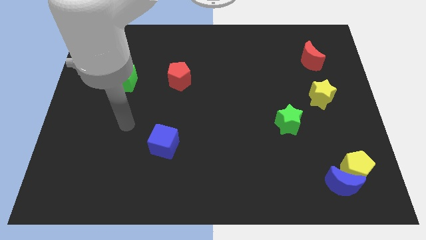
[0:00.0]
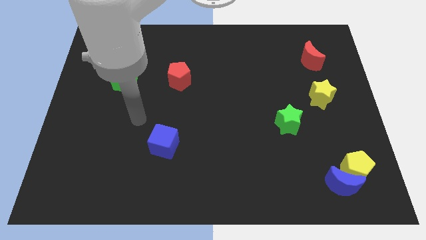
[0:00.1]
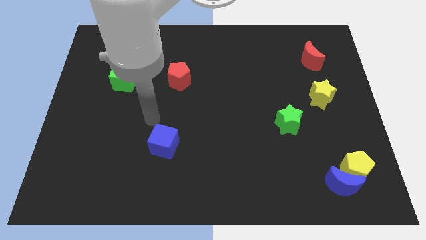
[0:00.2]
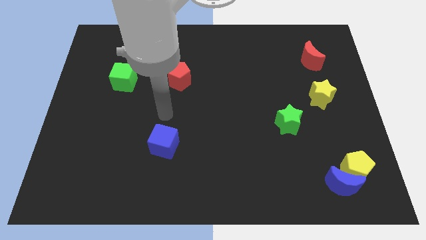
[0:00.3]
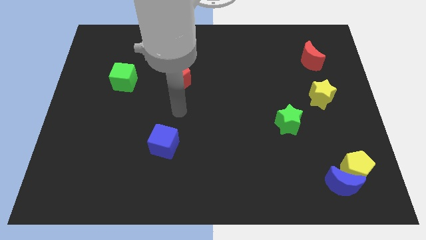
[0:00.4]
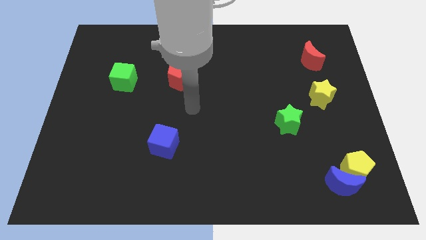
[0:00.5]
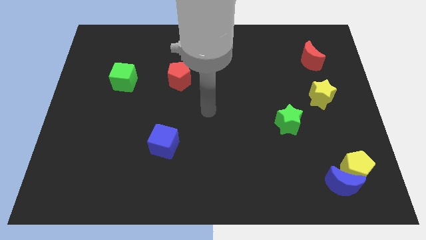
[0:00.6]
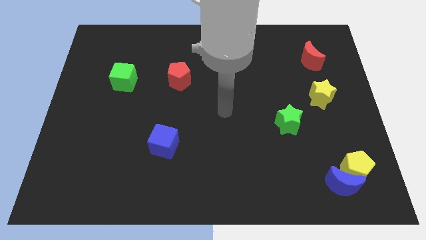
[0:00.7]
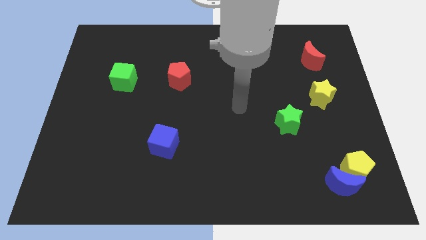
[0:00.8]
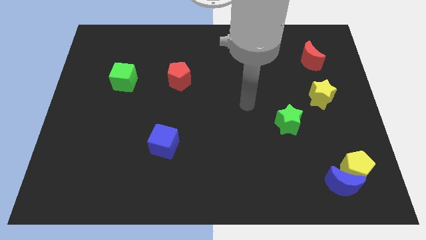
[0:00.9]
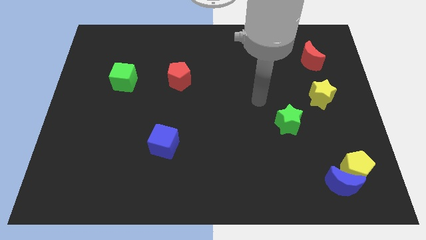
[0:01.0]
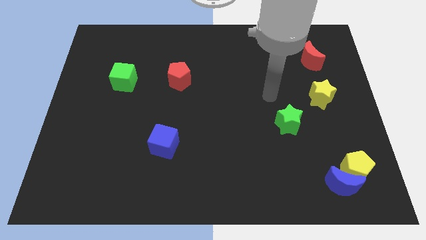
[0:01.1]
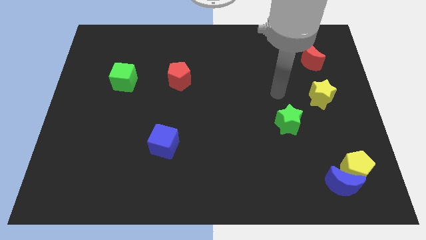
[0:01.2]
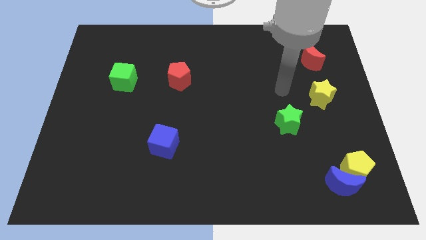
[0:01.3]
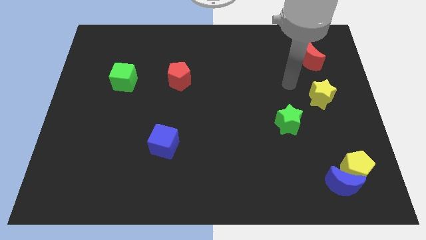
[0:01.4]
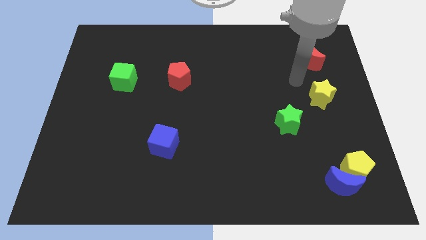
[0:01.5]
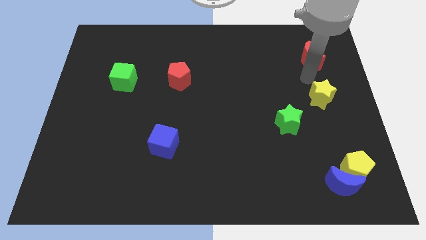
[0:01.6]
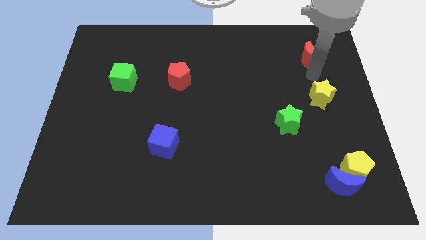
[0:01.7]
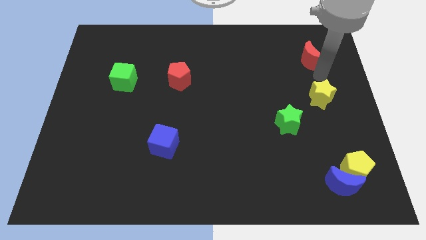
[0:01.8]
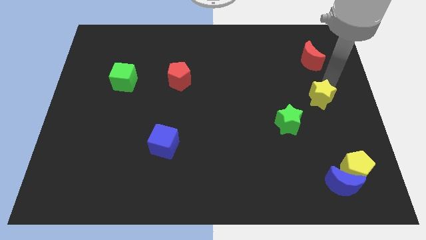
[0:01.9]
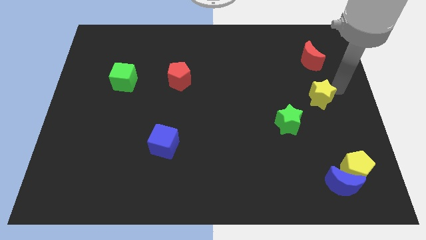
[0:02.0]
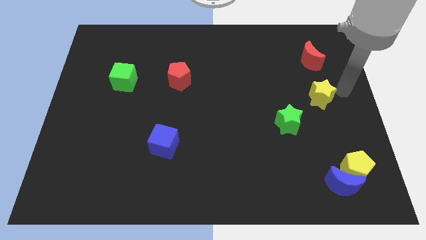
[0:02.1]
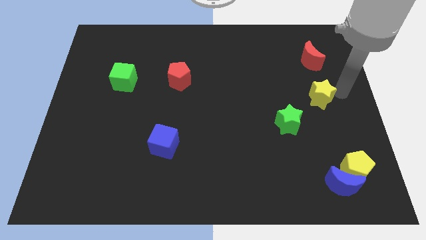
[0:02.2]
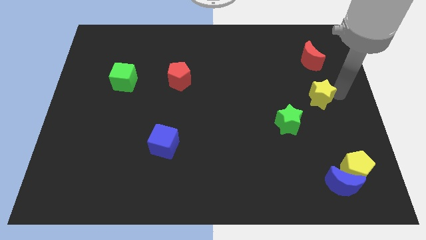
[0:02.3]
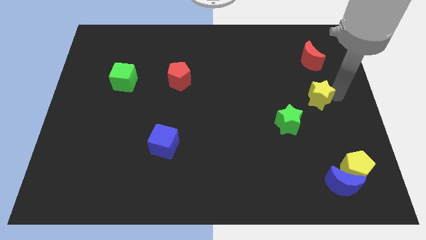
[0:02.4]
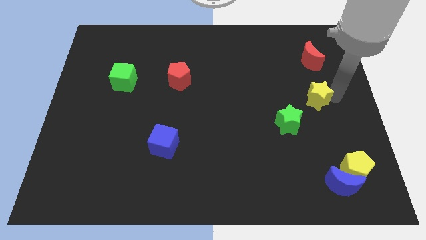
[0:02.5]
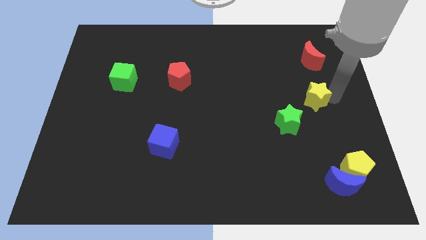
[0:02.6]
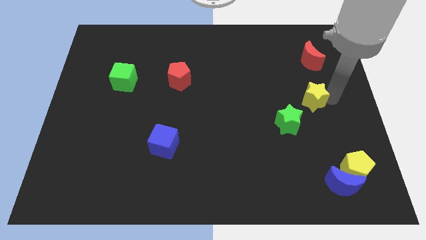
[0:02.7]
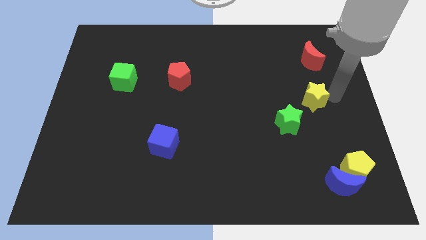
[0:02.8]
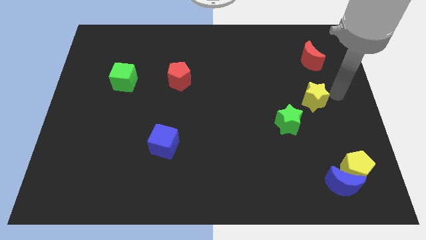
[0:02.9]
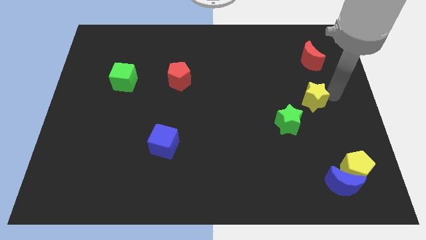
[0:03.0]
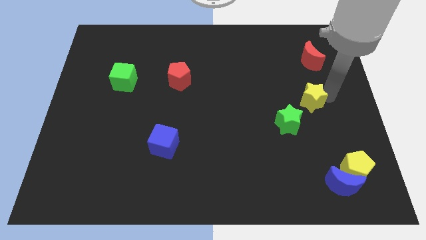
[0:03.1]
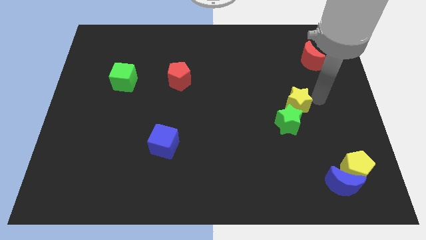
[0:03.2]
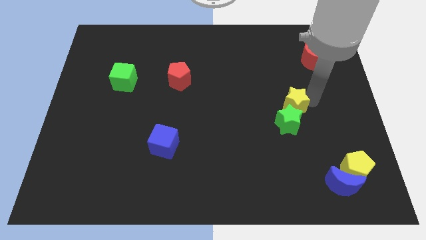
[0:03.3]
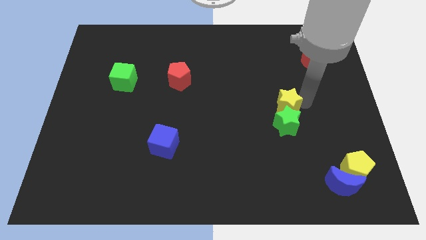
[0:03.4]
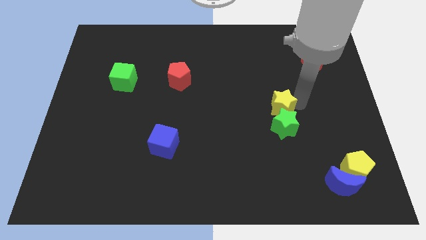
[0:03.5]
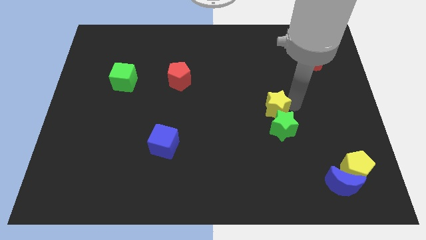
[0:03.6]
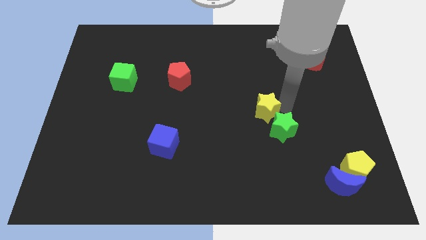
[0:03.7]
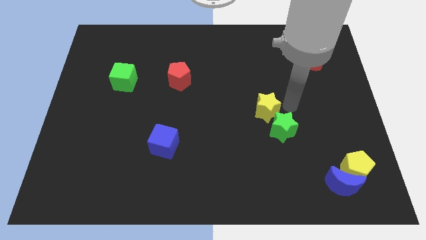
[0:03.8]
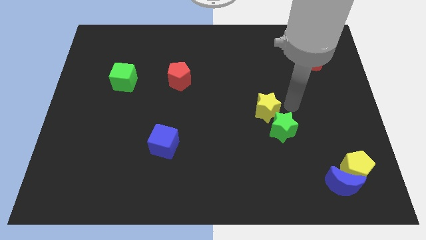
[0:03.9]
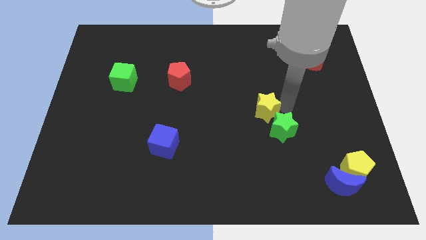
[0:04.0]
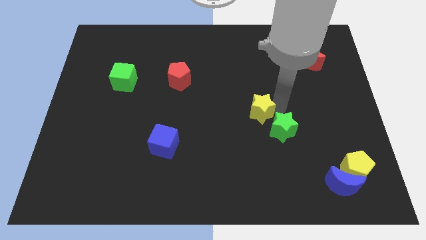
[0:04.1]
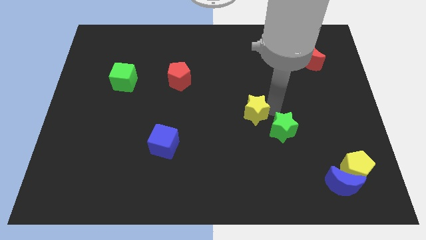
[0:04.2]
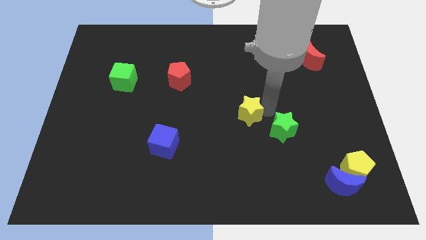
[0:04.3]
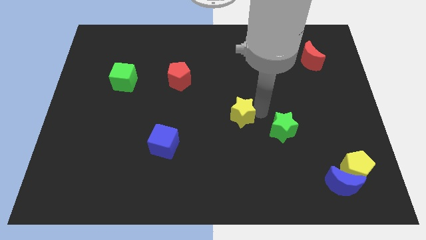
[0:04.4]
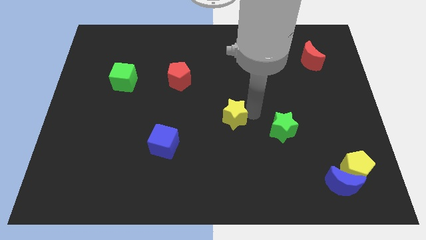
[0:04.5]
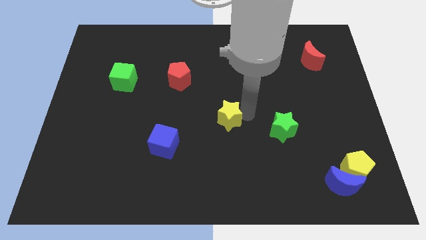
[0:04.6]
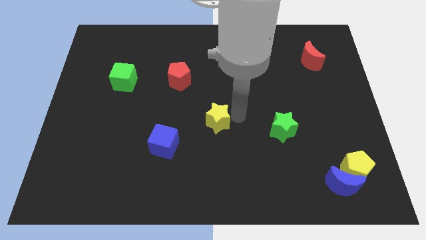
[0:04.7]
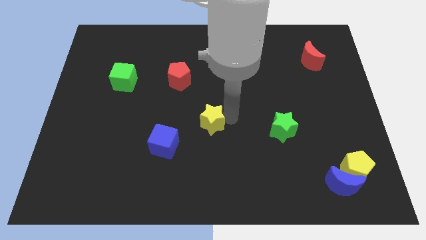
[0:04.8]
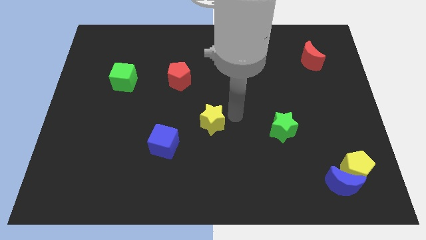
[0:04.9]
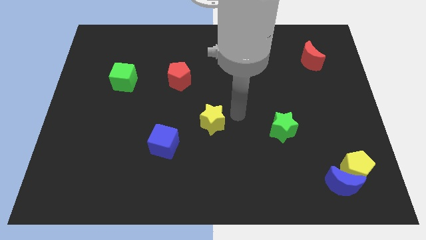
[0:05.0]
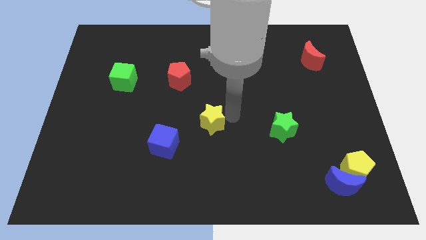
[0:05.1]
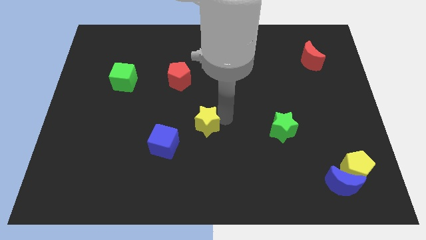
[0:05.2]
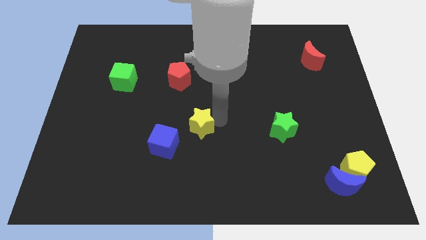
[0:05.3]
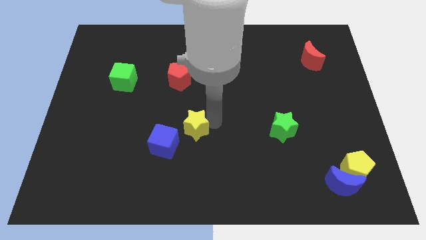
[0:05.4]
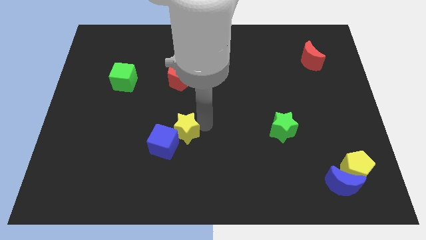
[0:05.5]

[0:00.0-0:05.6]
put the yellow star towards the blue cube

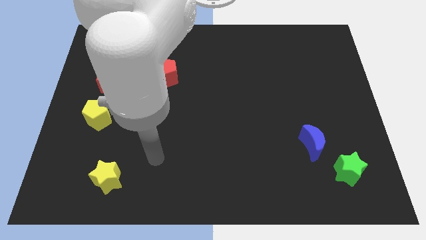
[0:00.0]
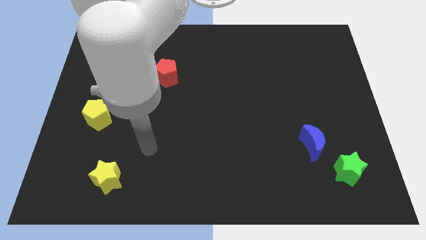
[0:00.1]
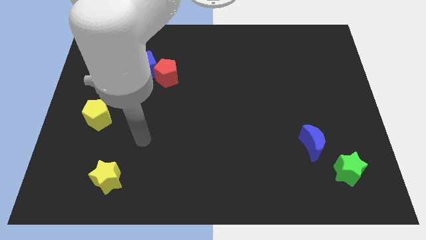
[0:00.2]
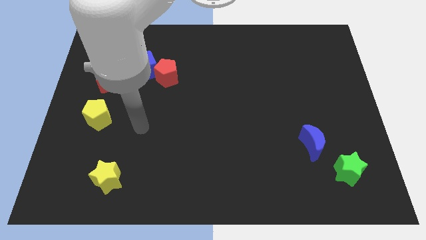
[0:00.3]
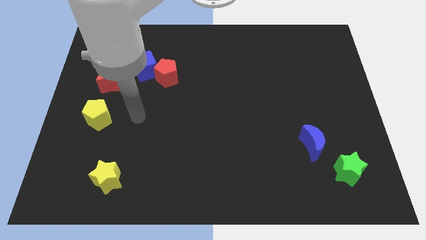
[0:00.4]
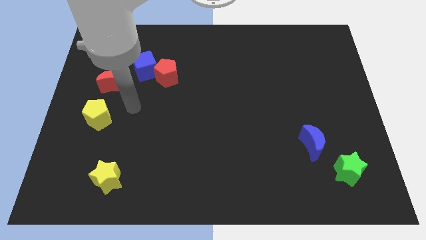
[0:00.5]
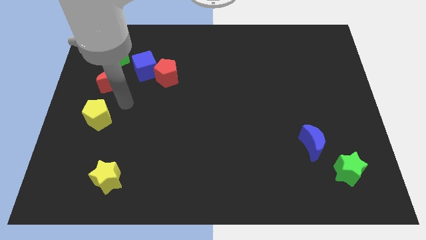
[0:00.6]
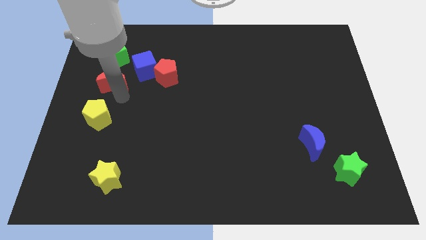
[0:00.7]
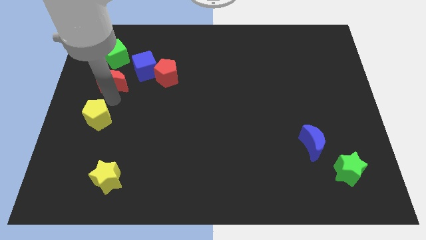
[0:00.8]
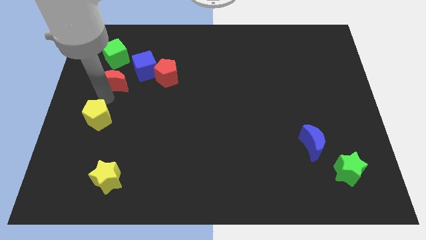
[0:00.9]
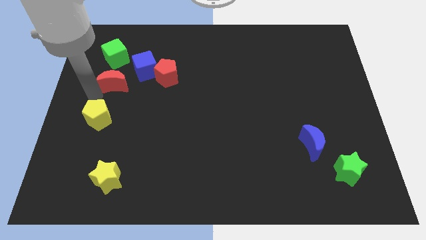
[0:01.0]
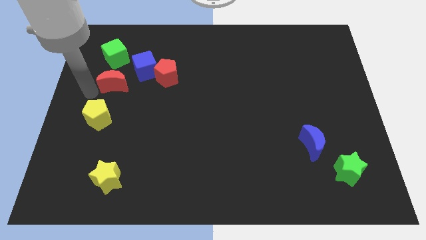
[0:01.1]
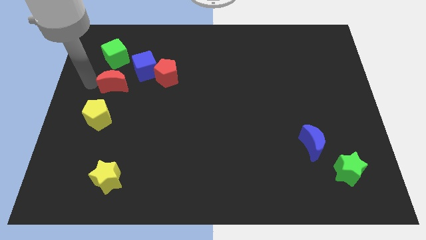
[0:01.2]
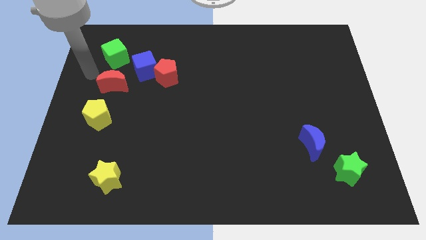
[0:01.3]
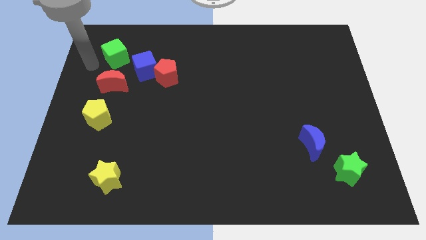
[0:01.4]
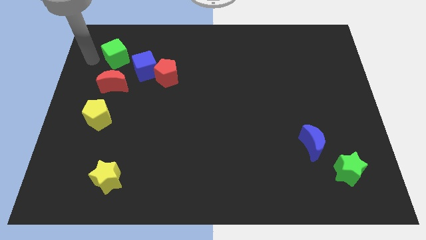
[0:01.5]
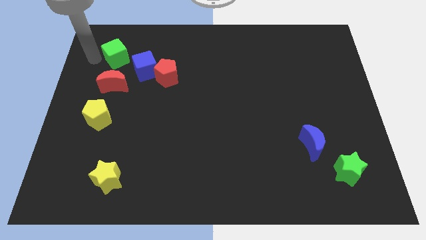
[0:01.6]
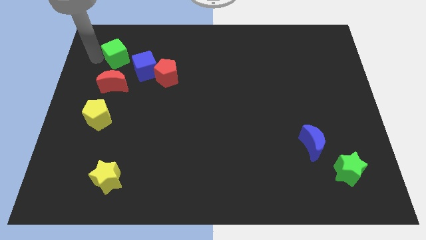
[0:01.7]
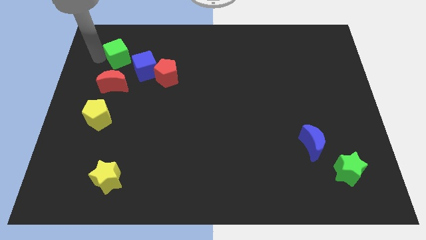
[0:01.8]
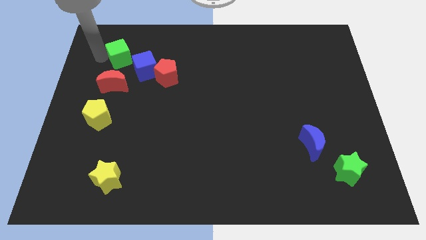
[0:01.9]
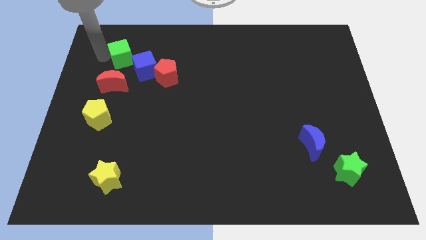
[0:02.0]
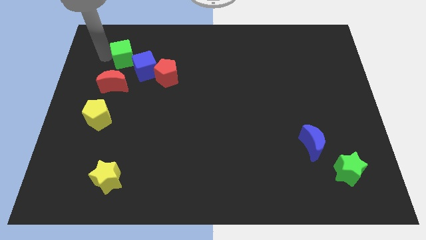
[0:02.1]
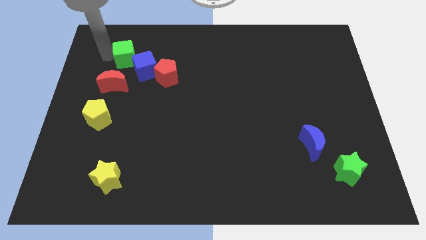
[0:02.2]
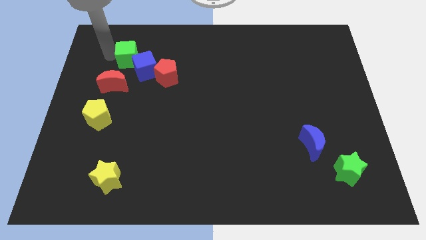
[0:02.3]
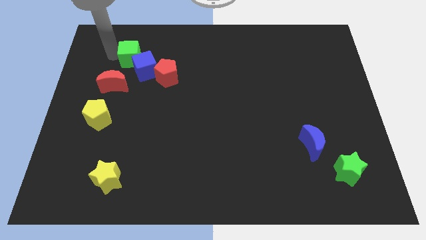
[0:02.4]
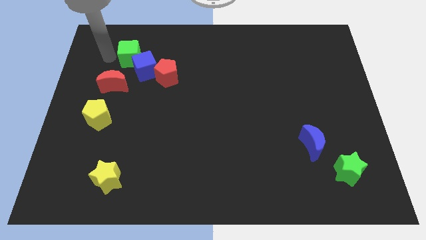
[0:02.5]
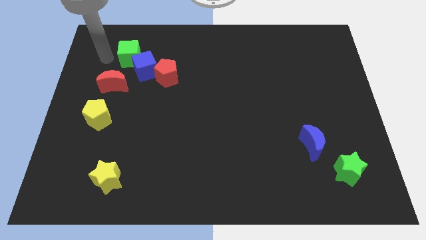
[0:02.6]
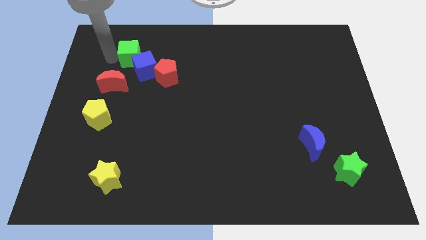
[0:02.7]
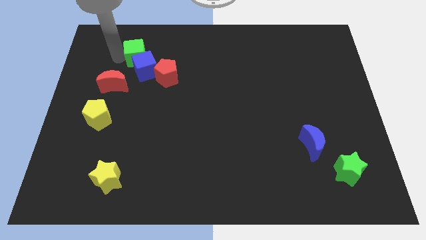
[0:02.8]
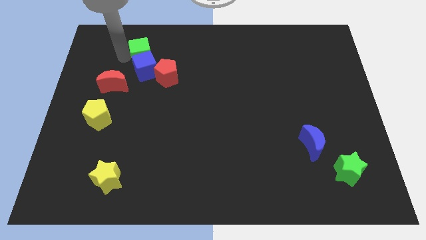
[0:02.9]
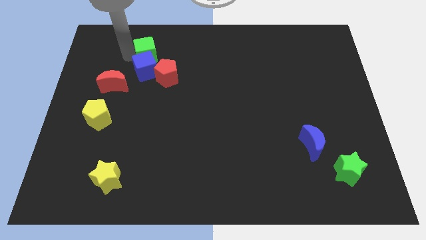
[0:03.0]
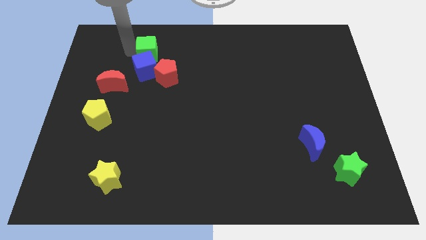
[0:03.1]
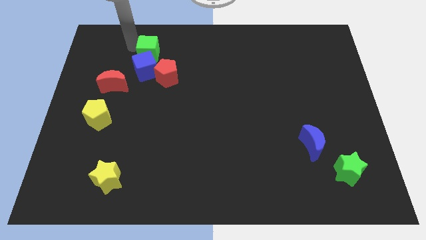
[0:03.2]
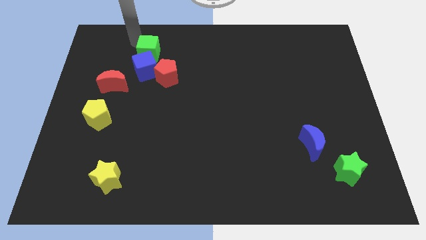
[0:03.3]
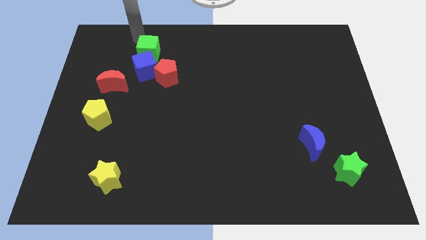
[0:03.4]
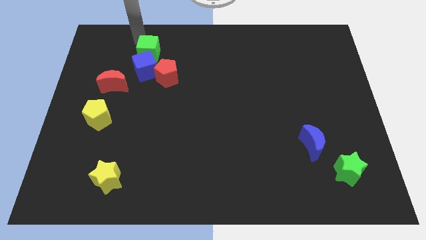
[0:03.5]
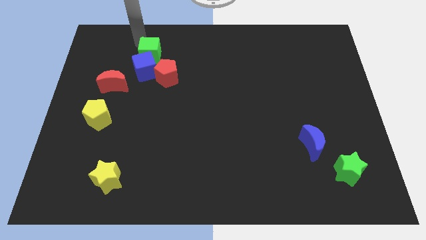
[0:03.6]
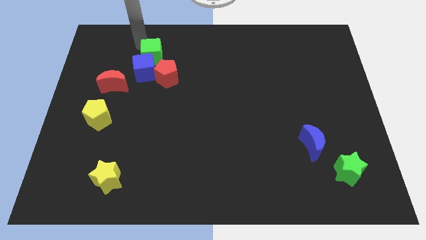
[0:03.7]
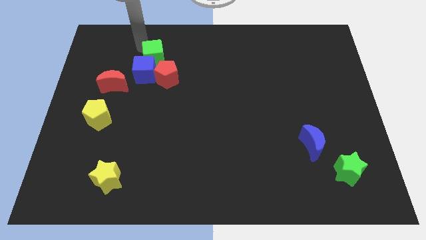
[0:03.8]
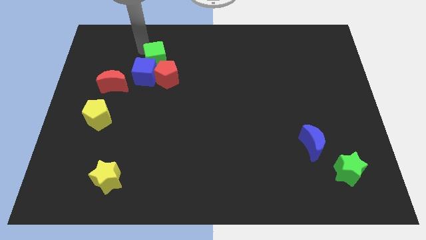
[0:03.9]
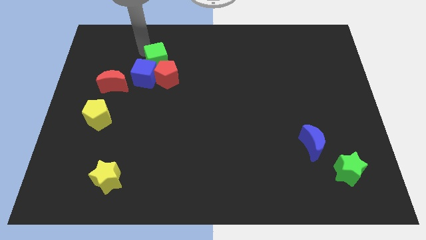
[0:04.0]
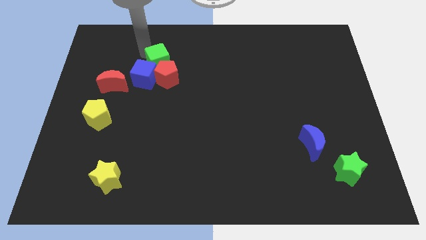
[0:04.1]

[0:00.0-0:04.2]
put the green cube close to the red pentagon
